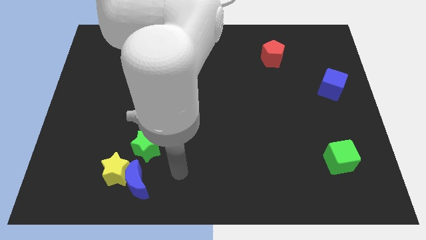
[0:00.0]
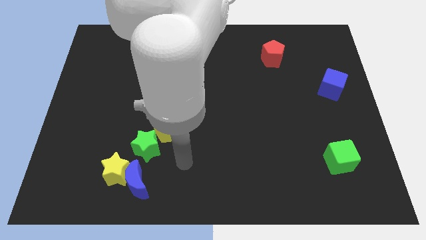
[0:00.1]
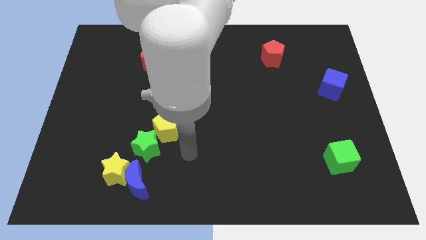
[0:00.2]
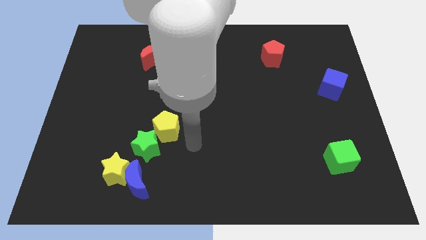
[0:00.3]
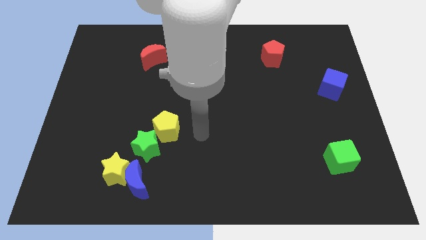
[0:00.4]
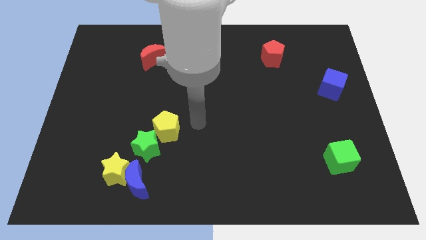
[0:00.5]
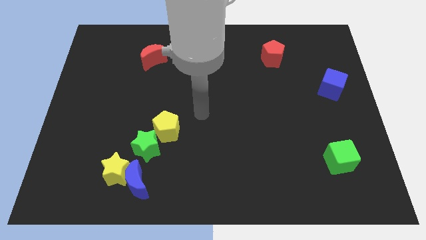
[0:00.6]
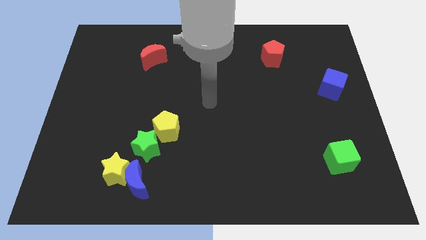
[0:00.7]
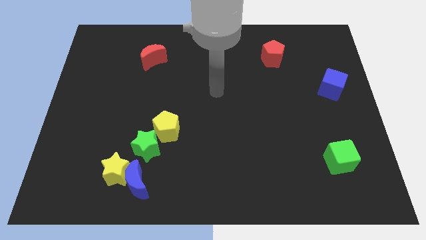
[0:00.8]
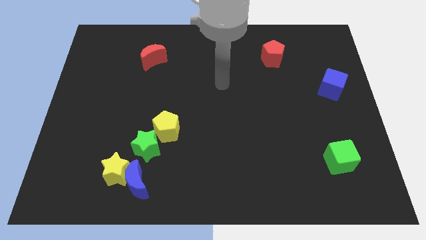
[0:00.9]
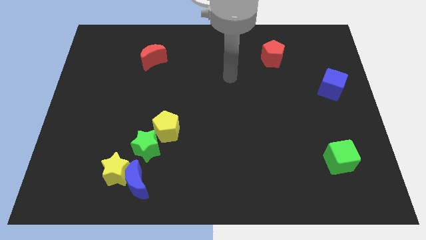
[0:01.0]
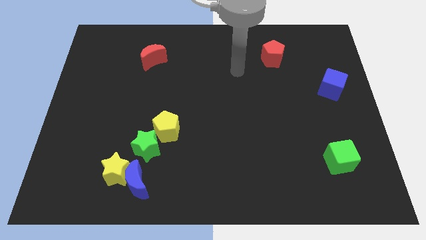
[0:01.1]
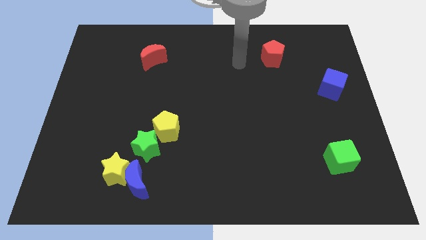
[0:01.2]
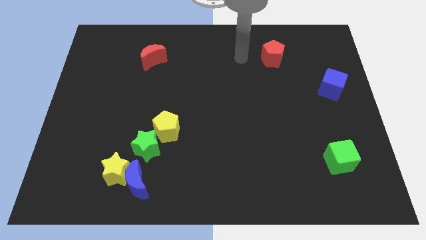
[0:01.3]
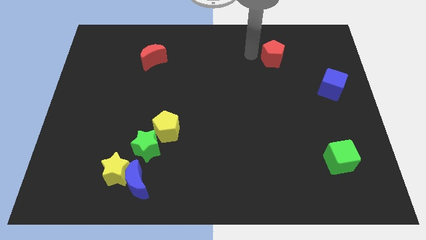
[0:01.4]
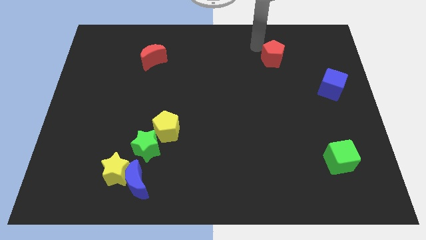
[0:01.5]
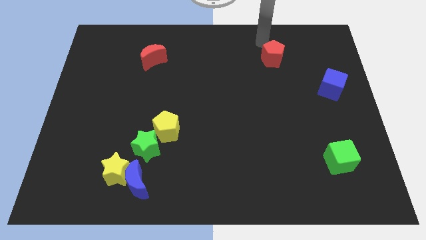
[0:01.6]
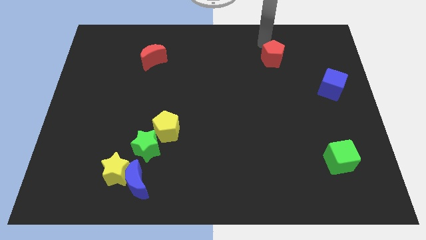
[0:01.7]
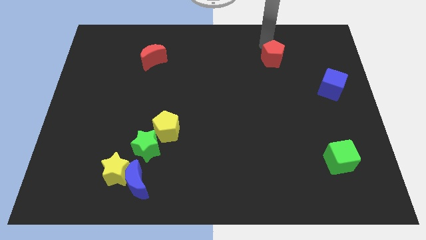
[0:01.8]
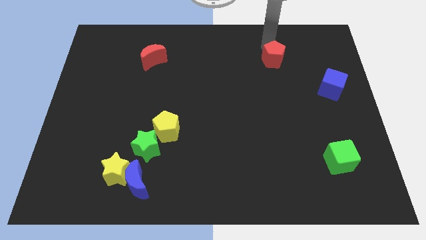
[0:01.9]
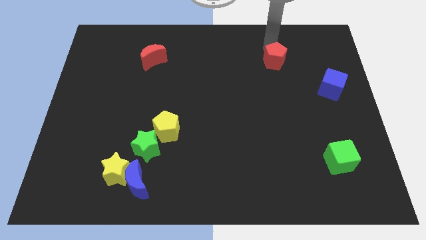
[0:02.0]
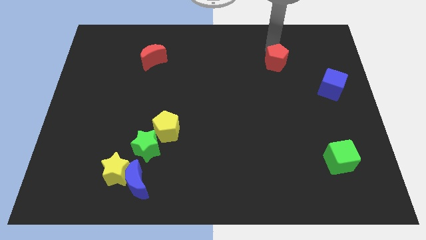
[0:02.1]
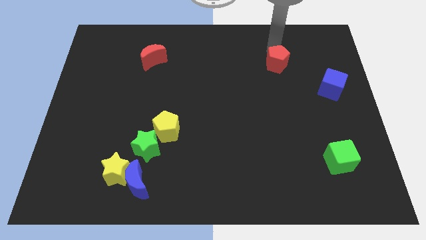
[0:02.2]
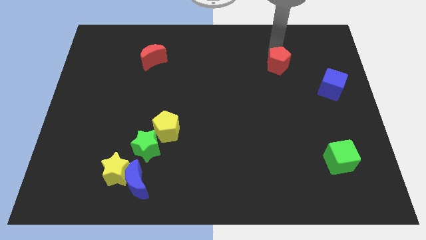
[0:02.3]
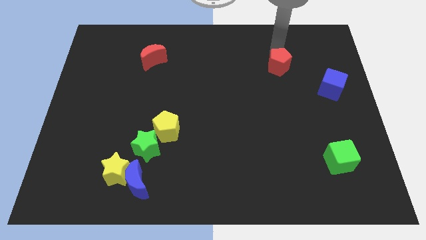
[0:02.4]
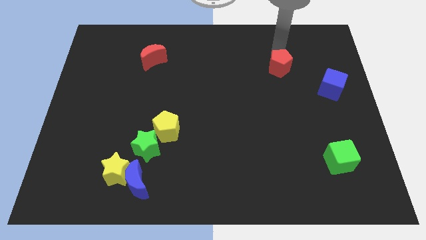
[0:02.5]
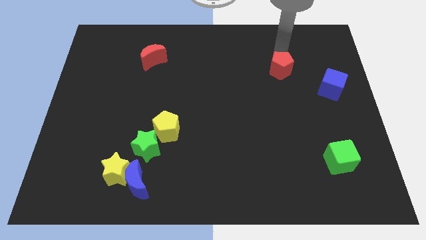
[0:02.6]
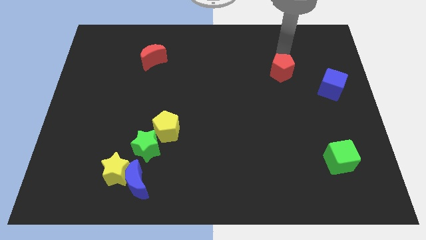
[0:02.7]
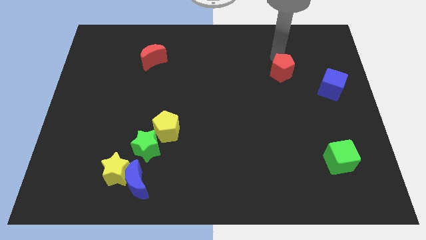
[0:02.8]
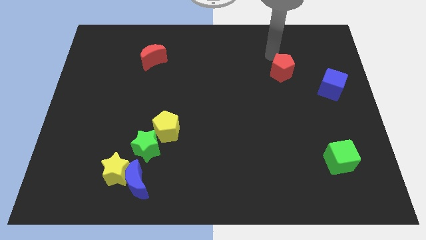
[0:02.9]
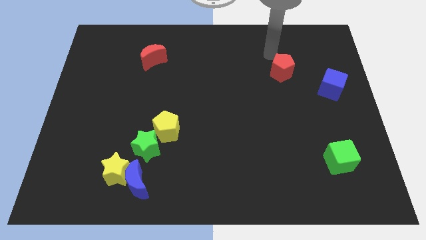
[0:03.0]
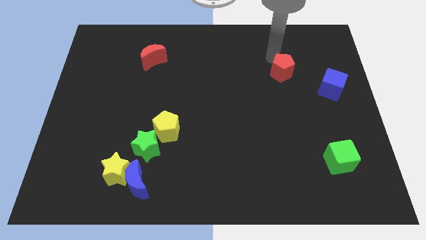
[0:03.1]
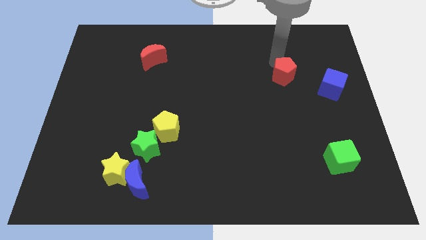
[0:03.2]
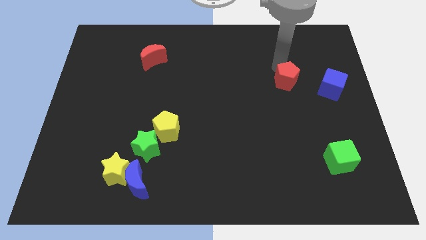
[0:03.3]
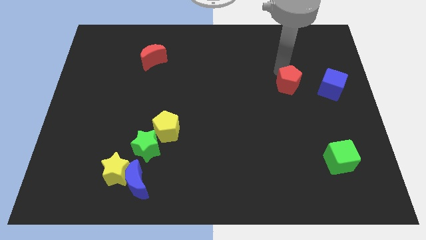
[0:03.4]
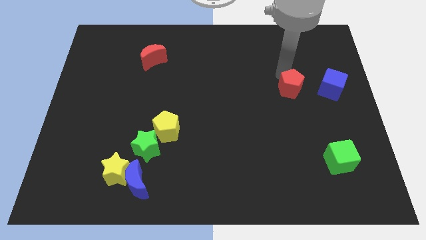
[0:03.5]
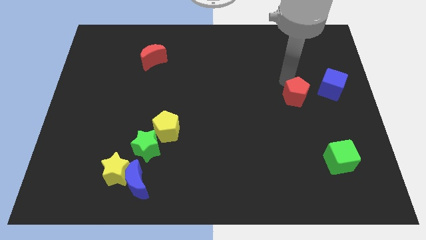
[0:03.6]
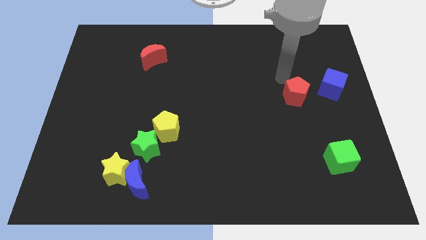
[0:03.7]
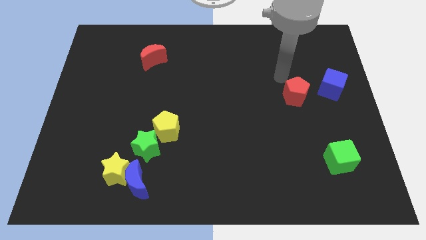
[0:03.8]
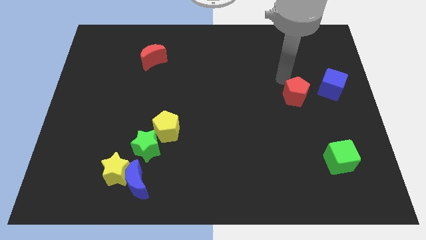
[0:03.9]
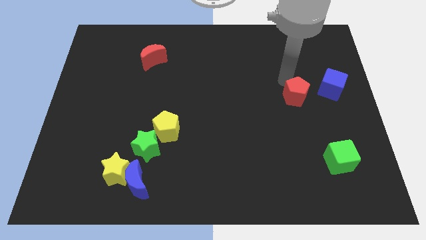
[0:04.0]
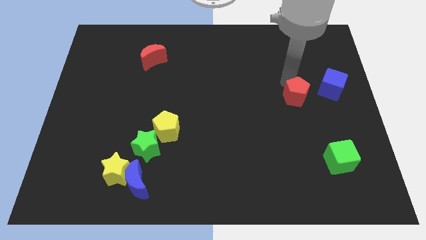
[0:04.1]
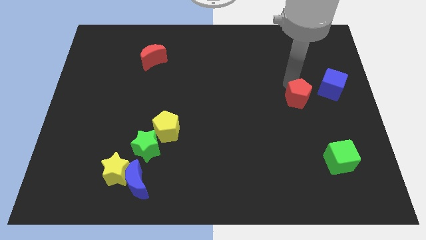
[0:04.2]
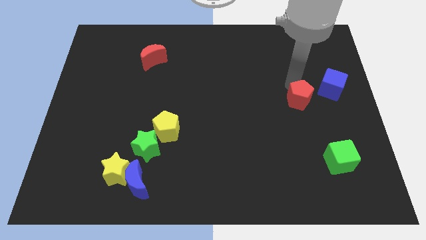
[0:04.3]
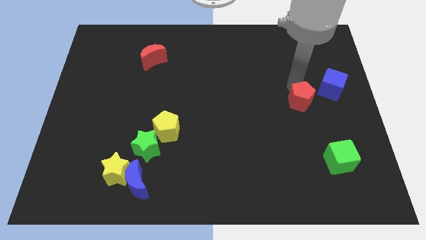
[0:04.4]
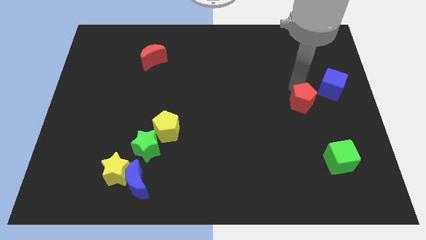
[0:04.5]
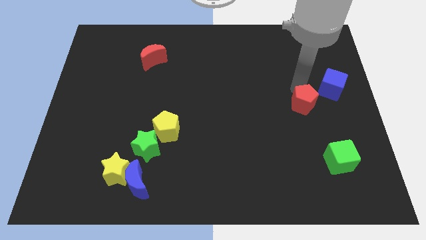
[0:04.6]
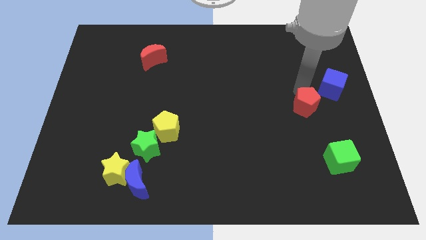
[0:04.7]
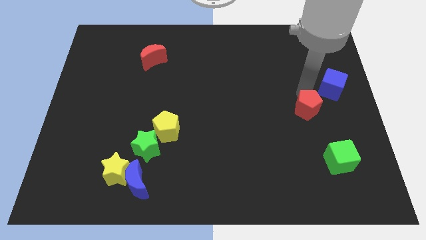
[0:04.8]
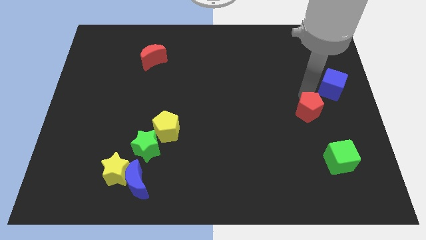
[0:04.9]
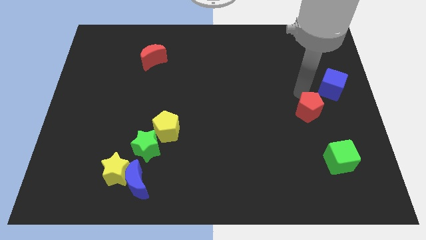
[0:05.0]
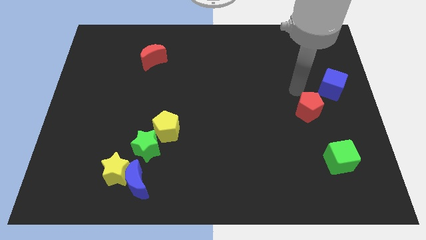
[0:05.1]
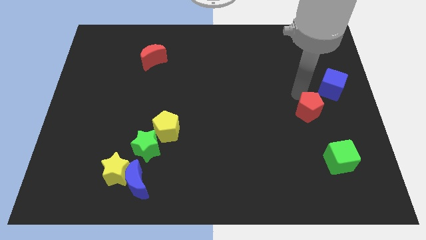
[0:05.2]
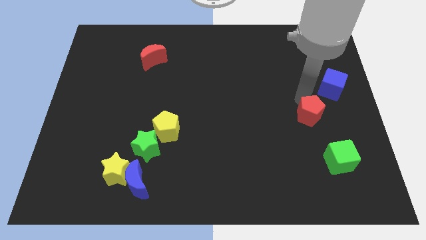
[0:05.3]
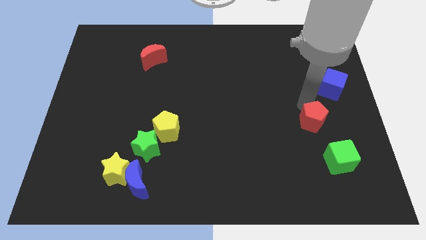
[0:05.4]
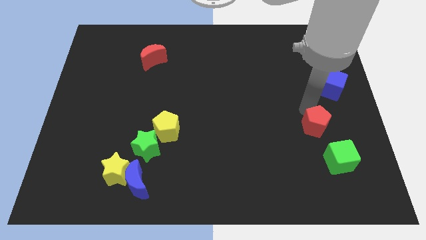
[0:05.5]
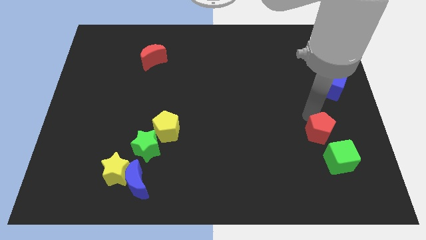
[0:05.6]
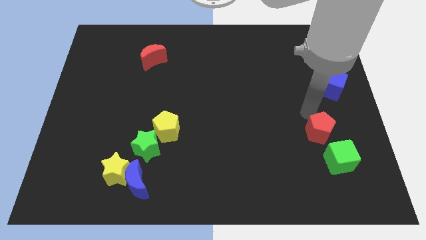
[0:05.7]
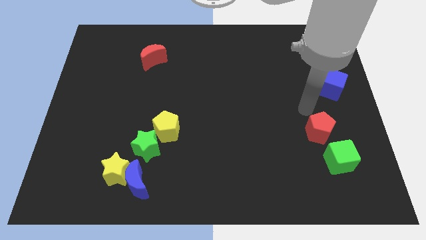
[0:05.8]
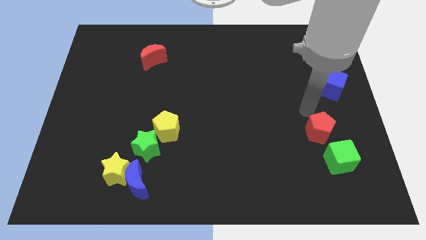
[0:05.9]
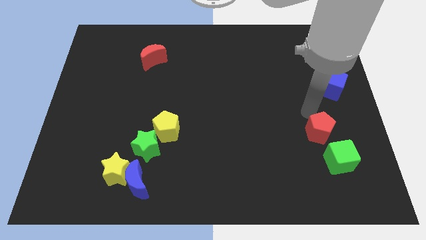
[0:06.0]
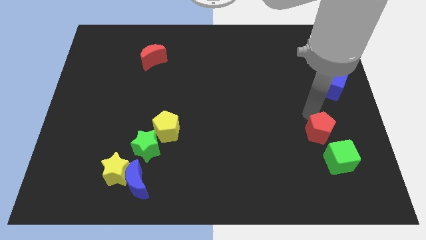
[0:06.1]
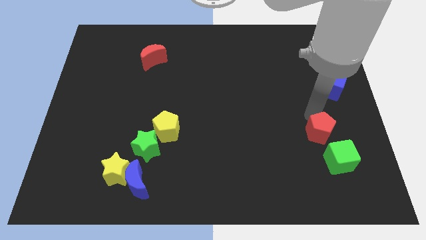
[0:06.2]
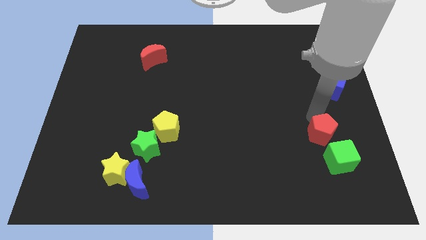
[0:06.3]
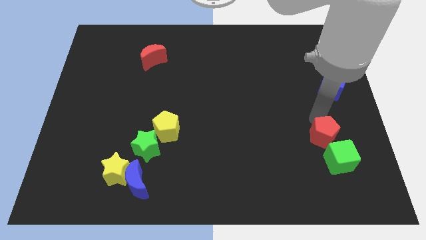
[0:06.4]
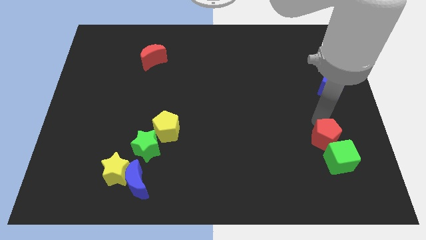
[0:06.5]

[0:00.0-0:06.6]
slide the red pentagon to the green cube

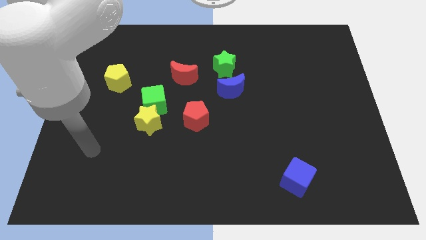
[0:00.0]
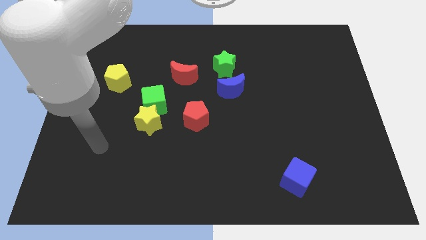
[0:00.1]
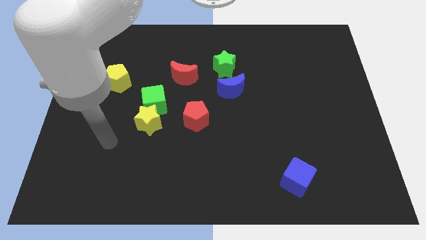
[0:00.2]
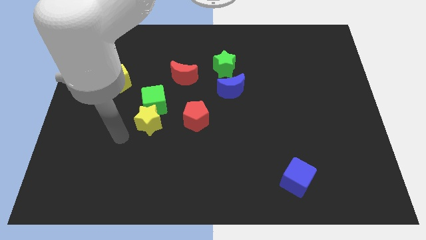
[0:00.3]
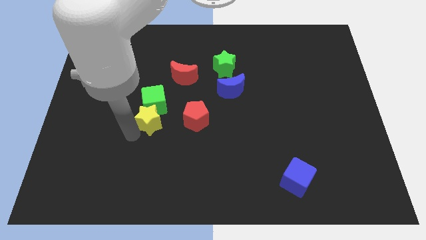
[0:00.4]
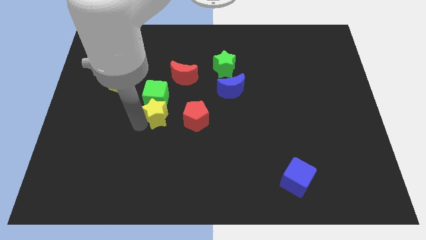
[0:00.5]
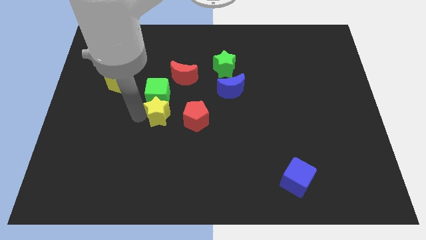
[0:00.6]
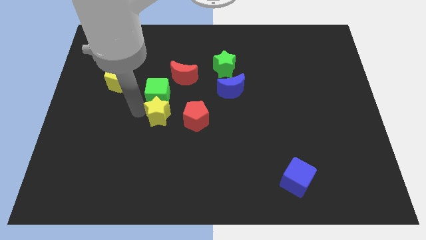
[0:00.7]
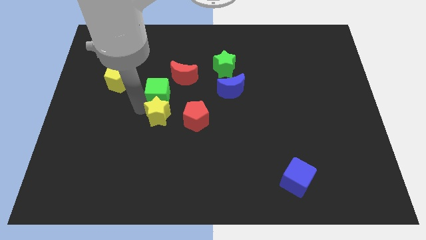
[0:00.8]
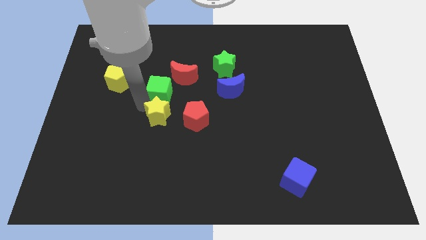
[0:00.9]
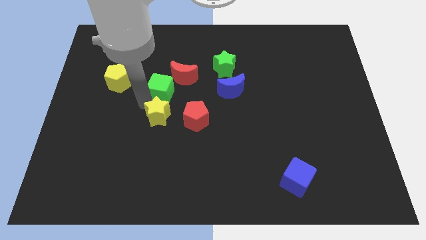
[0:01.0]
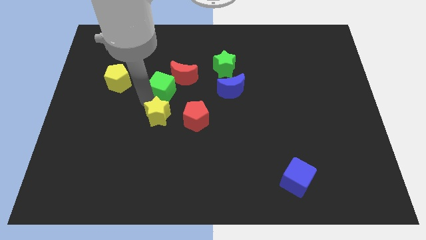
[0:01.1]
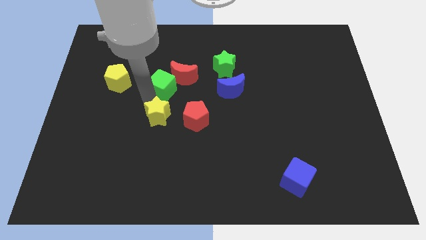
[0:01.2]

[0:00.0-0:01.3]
push the green cube towards the red moon
